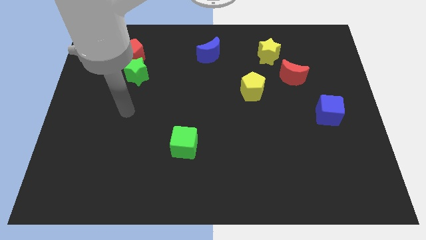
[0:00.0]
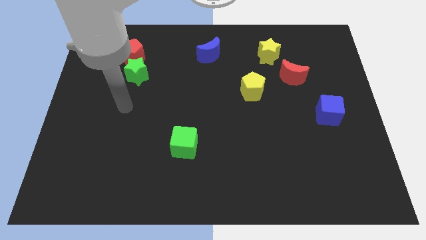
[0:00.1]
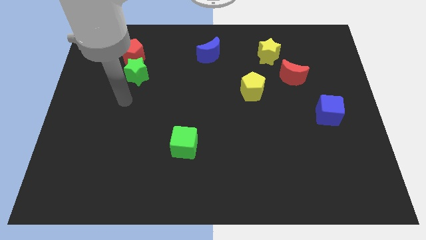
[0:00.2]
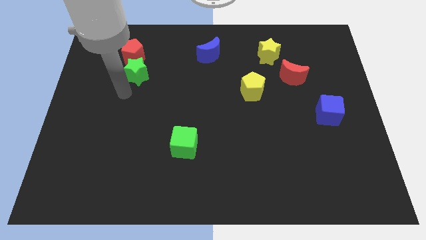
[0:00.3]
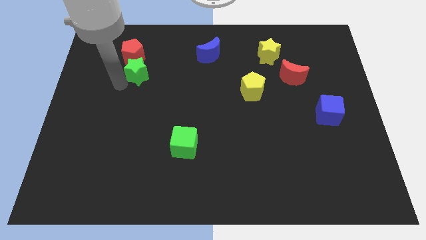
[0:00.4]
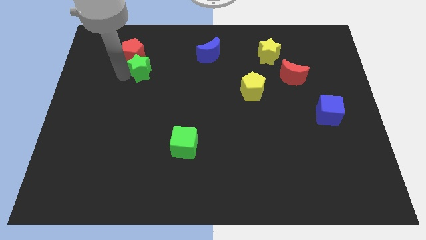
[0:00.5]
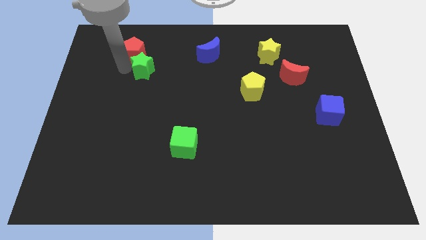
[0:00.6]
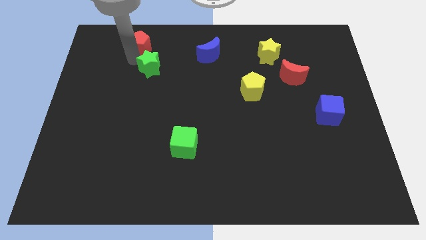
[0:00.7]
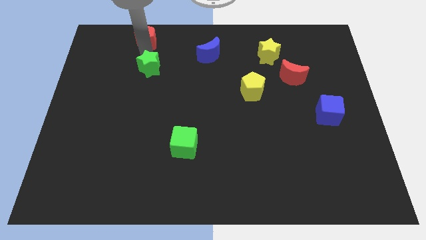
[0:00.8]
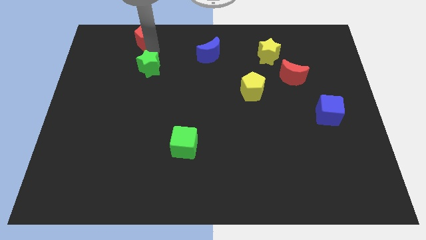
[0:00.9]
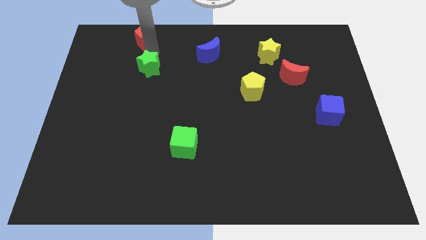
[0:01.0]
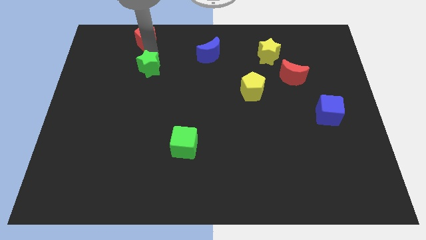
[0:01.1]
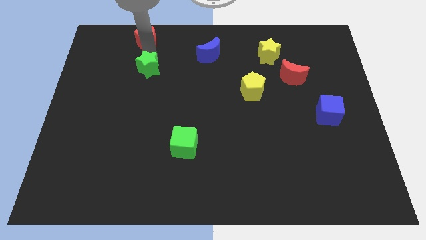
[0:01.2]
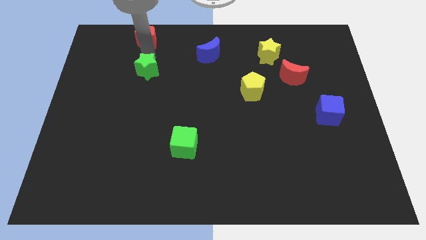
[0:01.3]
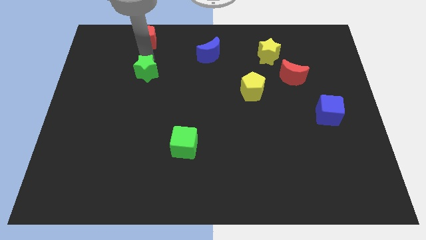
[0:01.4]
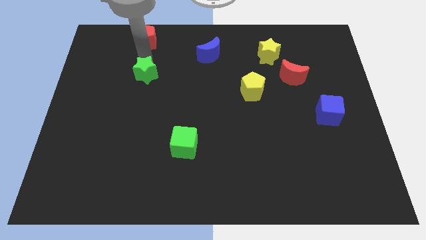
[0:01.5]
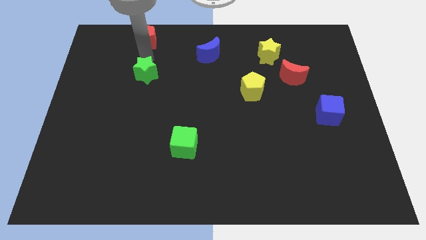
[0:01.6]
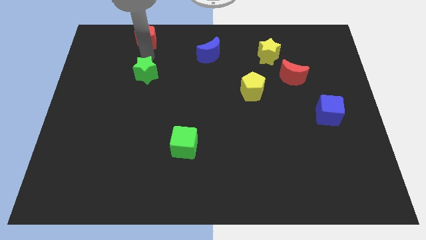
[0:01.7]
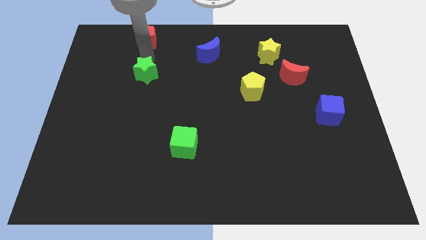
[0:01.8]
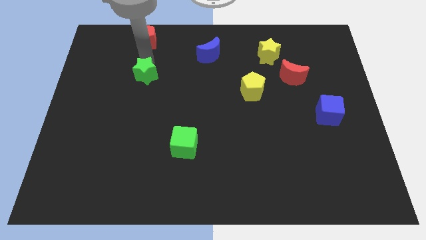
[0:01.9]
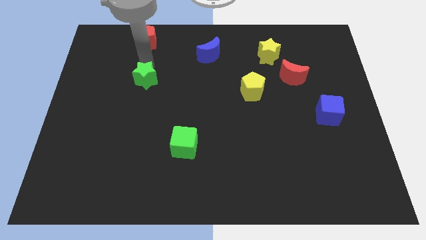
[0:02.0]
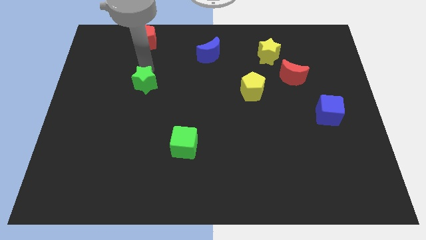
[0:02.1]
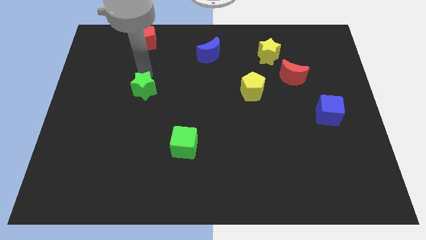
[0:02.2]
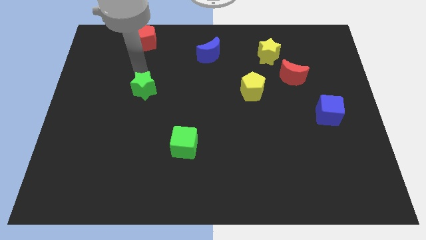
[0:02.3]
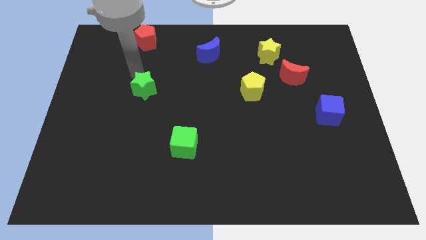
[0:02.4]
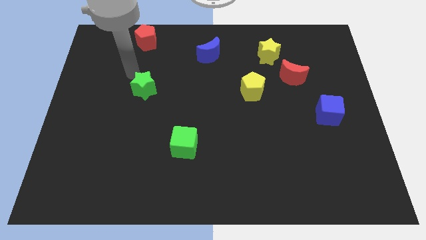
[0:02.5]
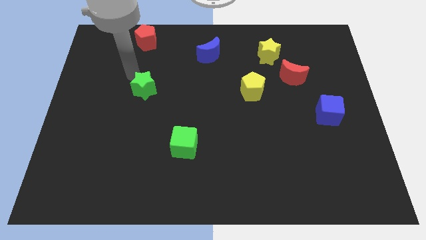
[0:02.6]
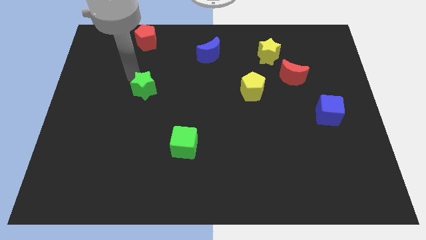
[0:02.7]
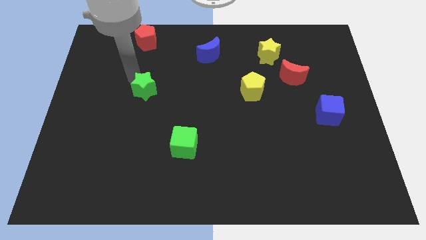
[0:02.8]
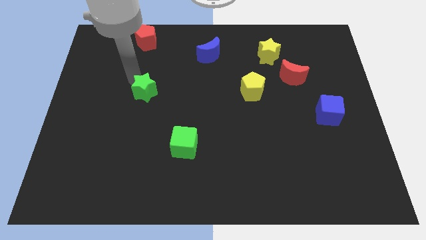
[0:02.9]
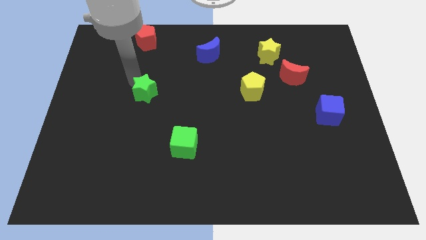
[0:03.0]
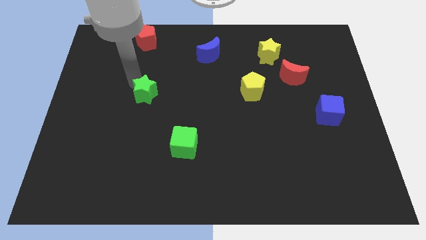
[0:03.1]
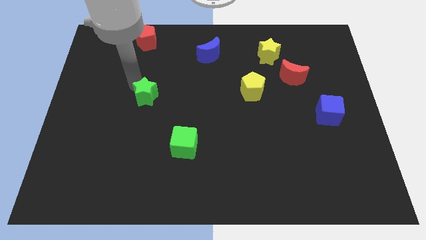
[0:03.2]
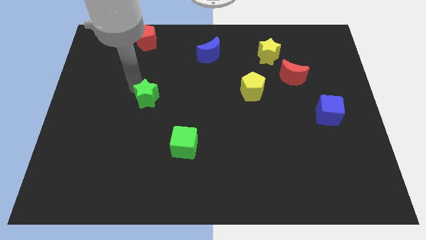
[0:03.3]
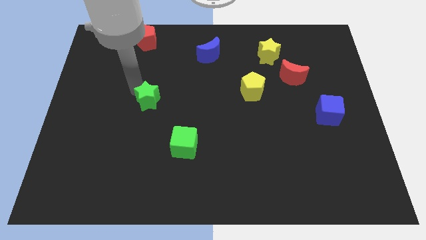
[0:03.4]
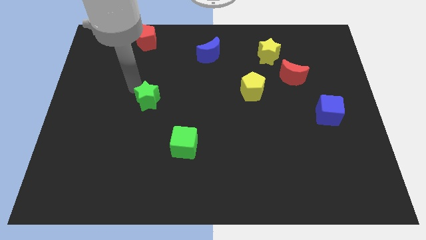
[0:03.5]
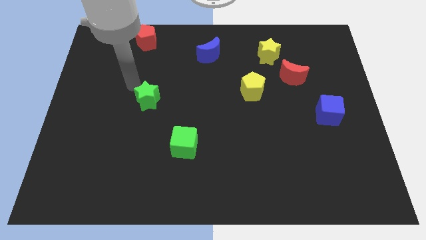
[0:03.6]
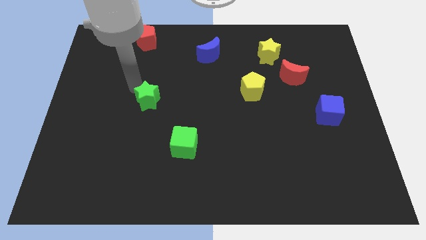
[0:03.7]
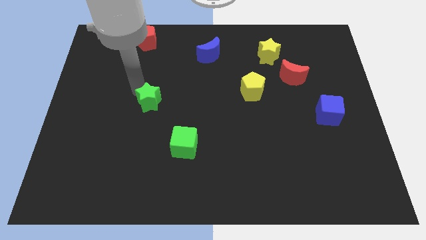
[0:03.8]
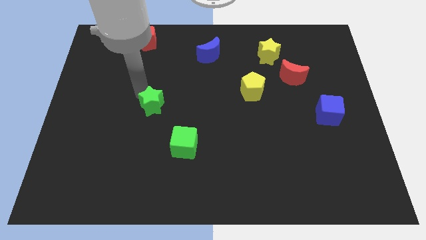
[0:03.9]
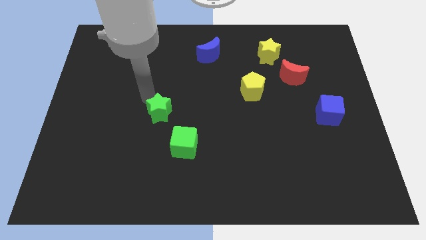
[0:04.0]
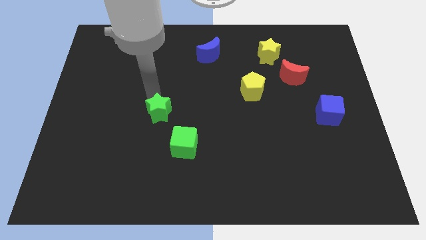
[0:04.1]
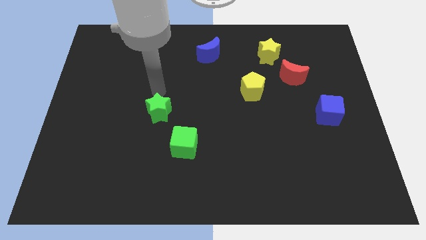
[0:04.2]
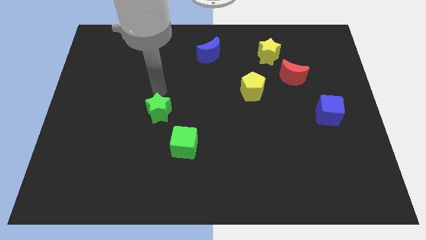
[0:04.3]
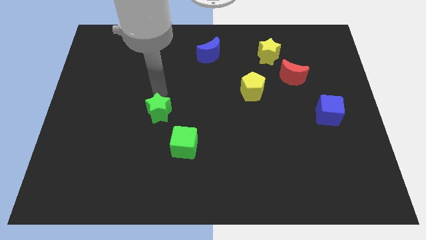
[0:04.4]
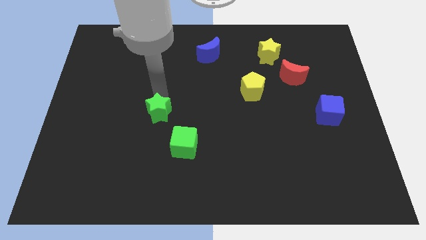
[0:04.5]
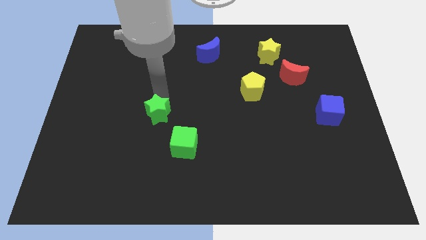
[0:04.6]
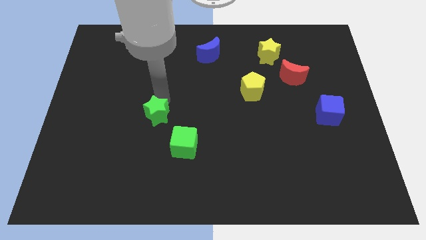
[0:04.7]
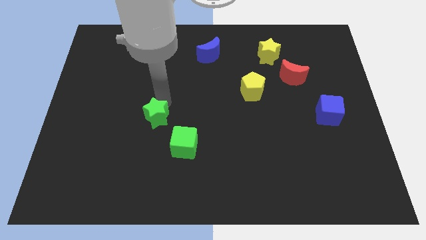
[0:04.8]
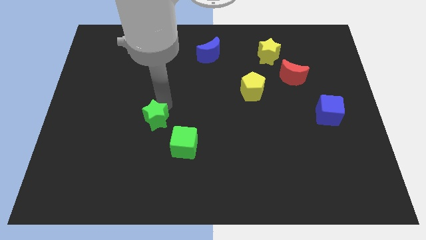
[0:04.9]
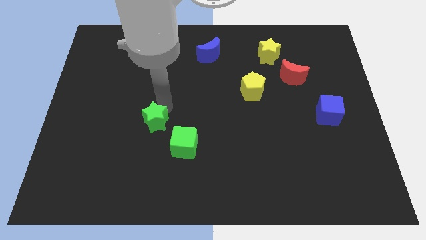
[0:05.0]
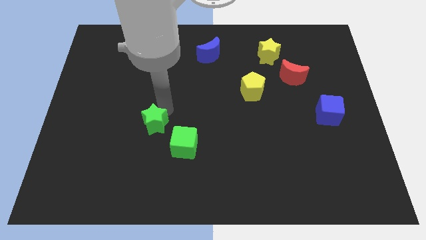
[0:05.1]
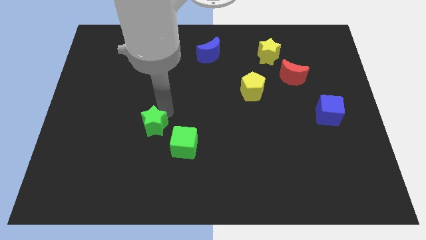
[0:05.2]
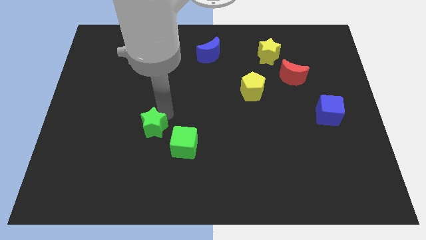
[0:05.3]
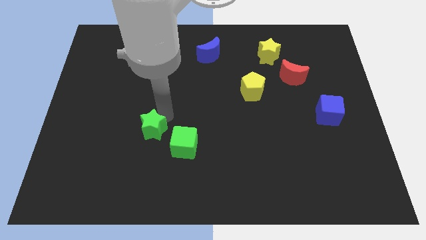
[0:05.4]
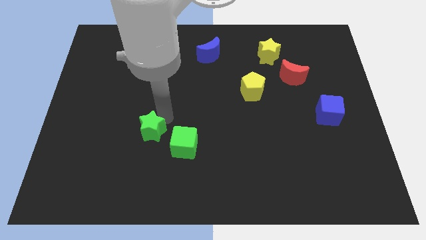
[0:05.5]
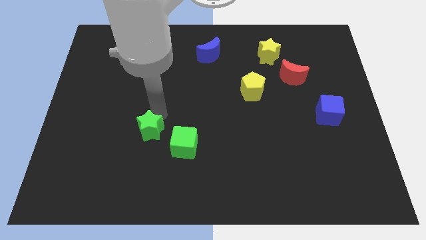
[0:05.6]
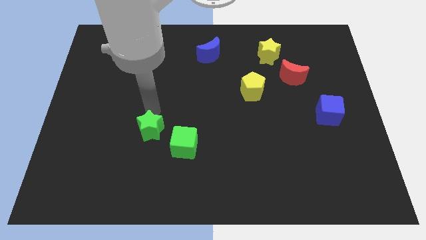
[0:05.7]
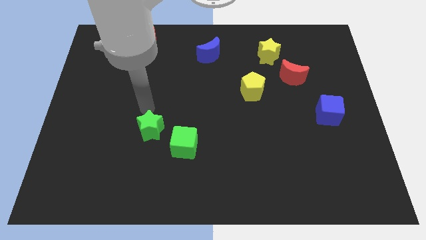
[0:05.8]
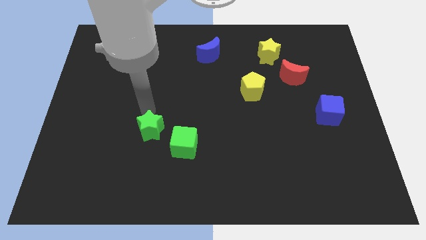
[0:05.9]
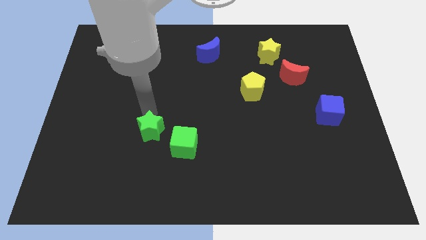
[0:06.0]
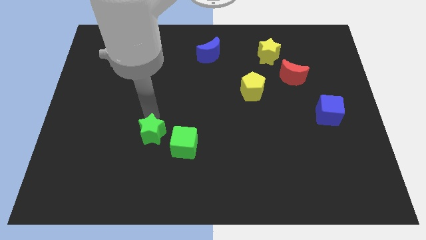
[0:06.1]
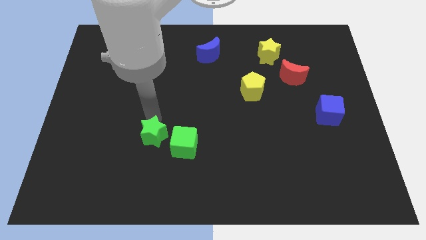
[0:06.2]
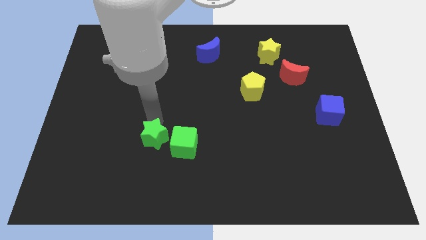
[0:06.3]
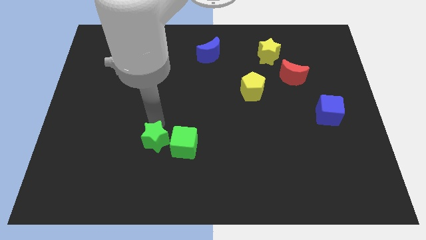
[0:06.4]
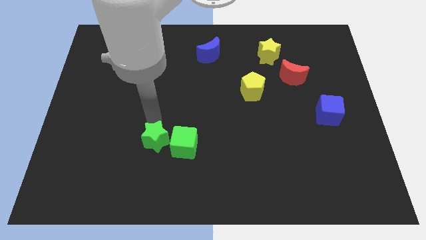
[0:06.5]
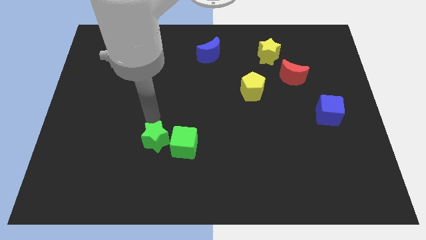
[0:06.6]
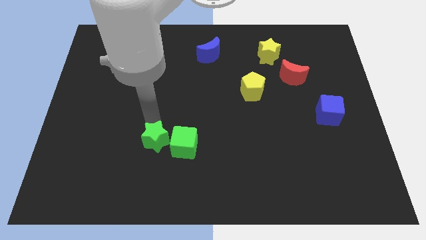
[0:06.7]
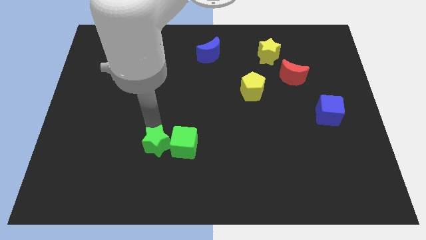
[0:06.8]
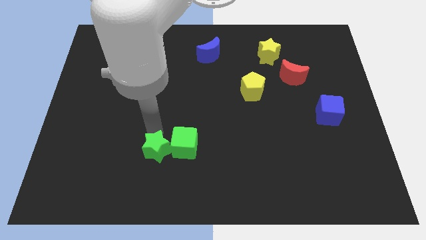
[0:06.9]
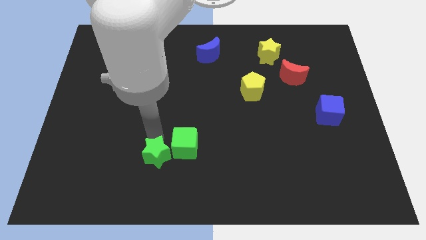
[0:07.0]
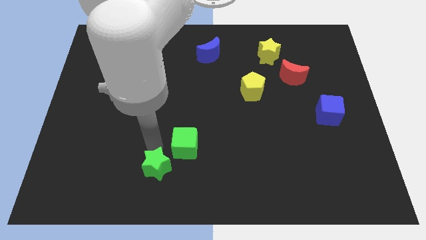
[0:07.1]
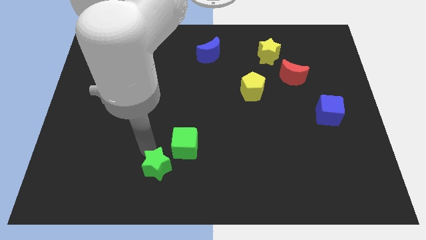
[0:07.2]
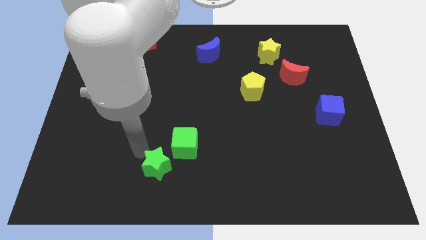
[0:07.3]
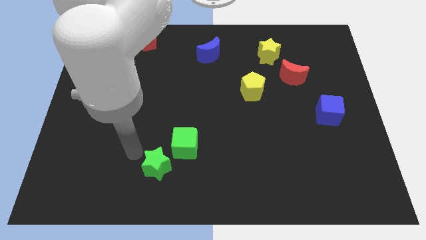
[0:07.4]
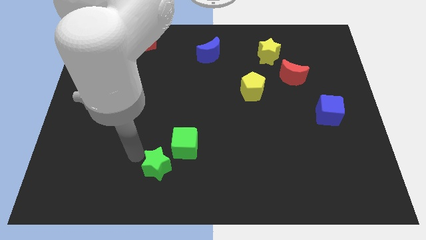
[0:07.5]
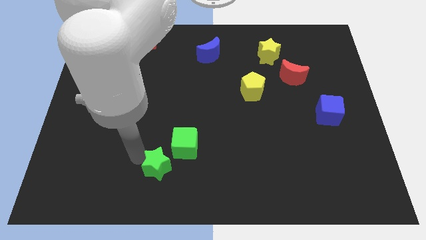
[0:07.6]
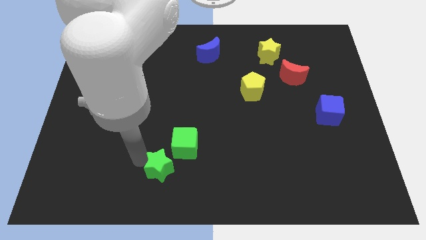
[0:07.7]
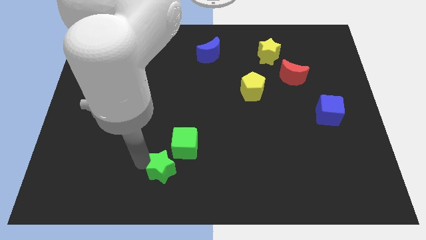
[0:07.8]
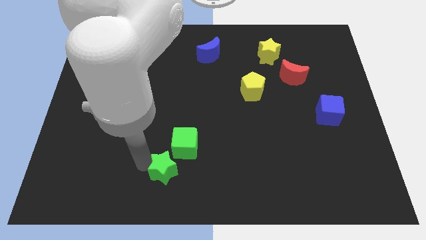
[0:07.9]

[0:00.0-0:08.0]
move the green star to the bottom side
